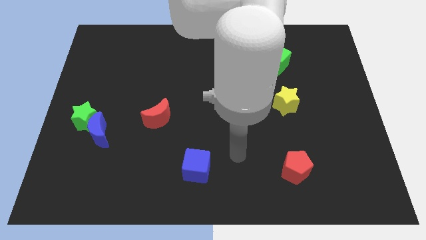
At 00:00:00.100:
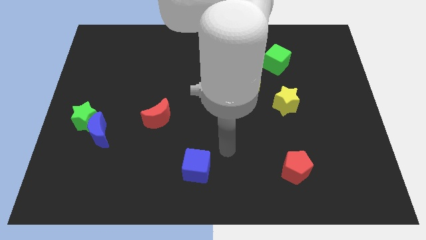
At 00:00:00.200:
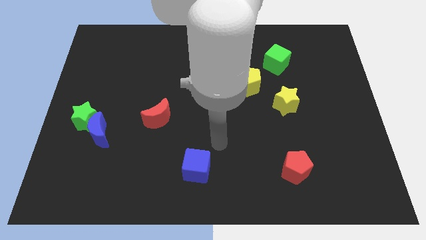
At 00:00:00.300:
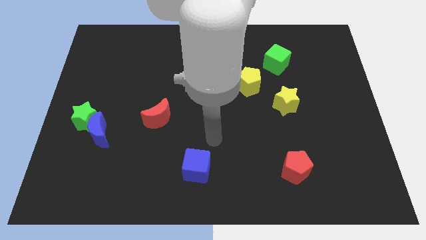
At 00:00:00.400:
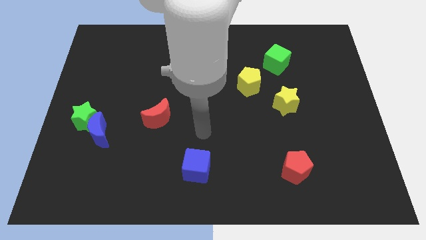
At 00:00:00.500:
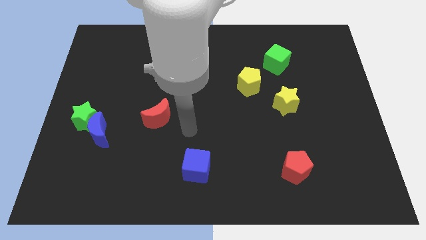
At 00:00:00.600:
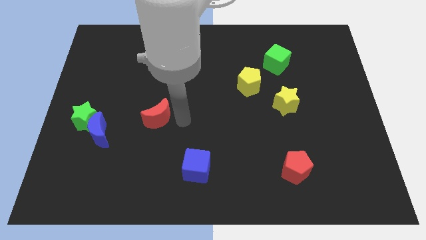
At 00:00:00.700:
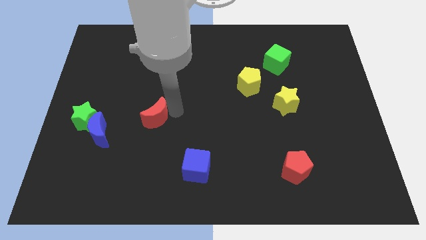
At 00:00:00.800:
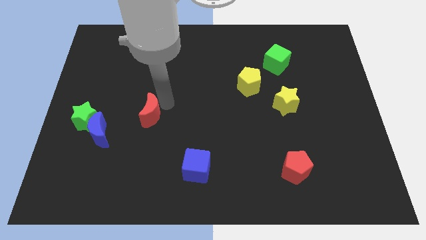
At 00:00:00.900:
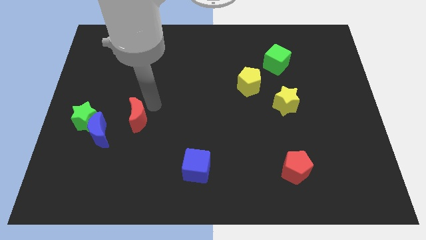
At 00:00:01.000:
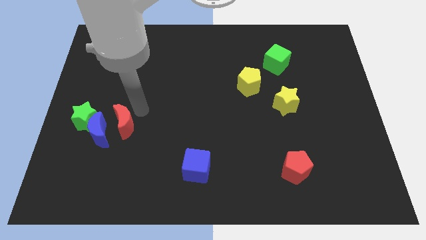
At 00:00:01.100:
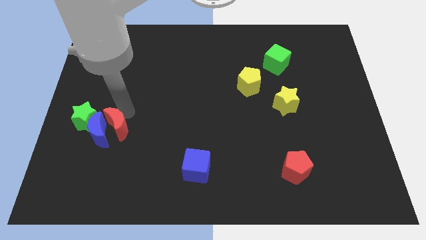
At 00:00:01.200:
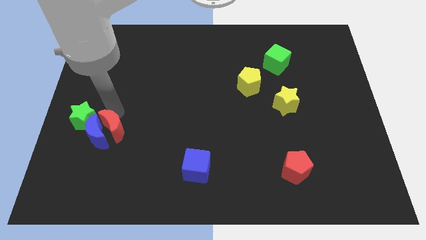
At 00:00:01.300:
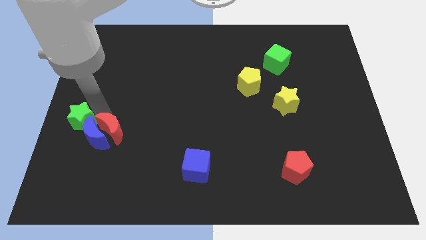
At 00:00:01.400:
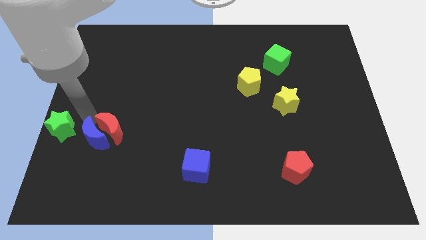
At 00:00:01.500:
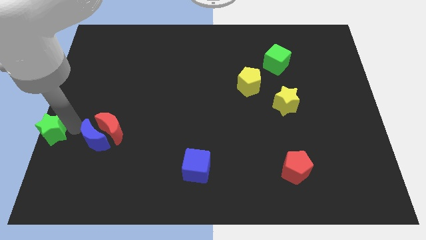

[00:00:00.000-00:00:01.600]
move the blue moon away from the green star

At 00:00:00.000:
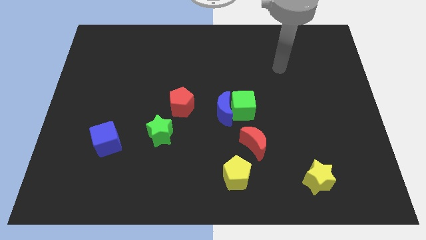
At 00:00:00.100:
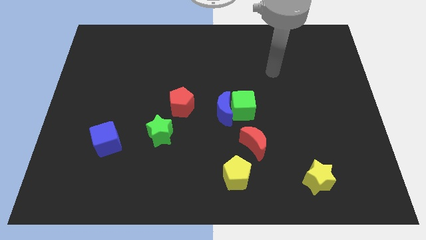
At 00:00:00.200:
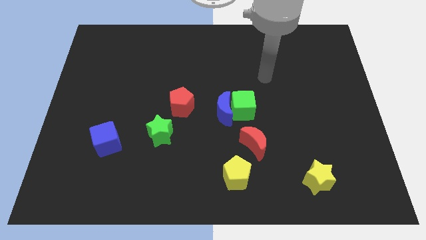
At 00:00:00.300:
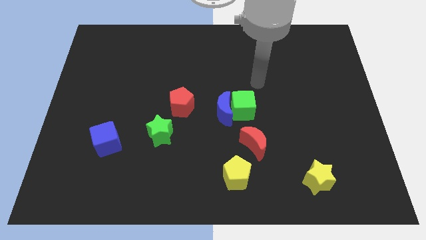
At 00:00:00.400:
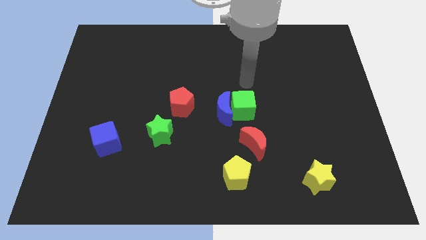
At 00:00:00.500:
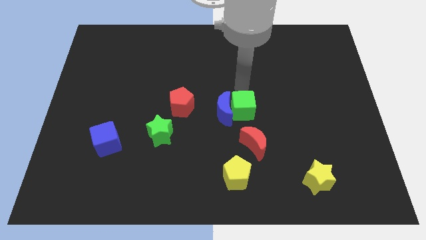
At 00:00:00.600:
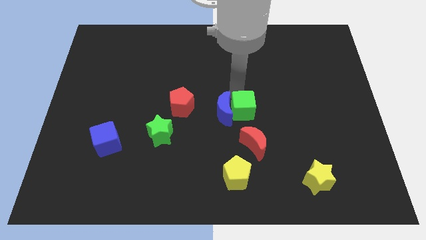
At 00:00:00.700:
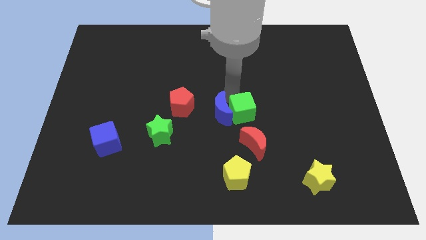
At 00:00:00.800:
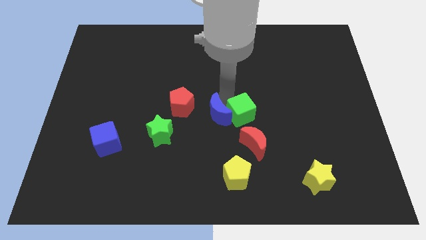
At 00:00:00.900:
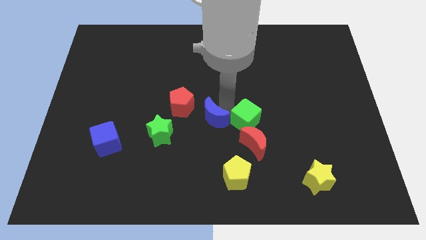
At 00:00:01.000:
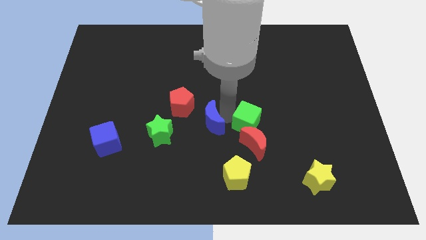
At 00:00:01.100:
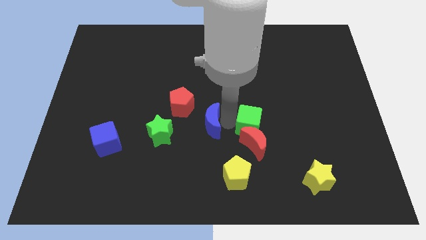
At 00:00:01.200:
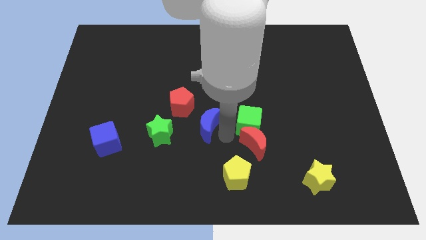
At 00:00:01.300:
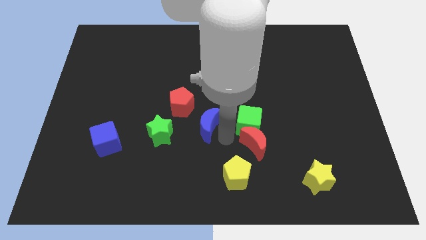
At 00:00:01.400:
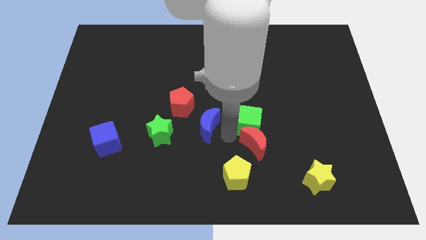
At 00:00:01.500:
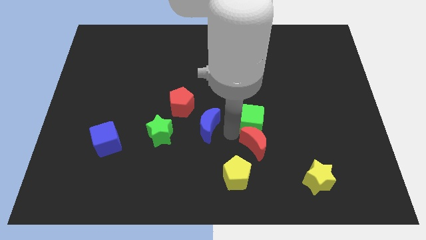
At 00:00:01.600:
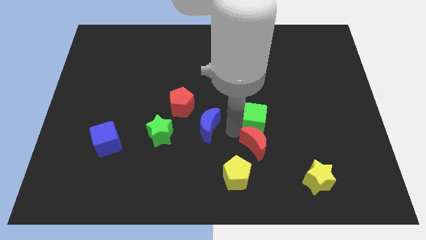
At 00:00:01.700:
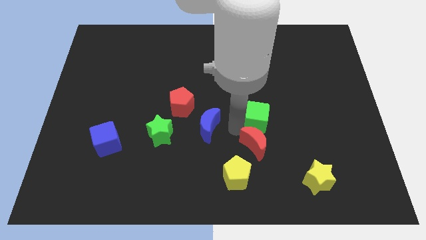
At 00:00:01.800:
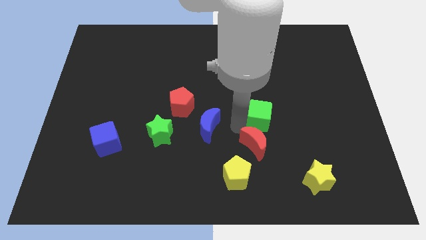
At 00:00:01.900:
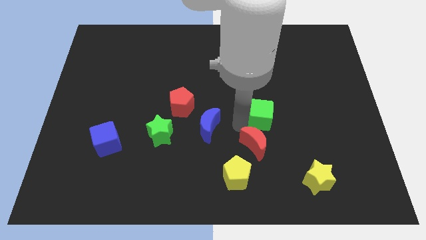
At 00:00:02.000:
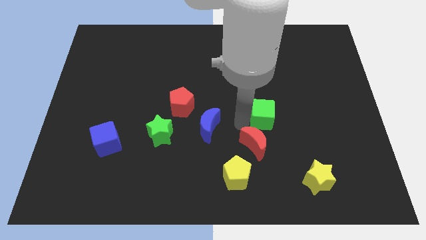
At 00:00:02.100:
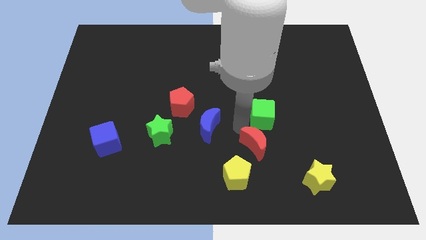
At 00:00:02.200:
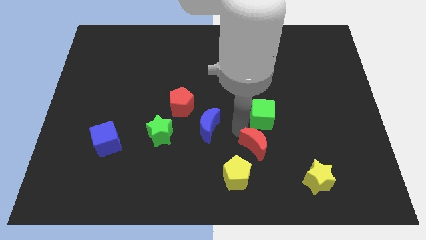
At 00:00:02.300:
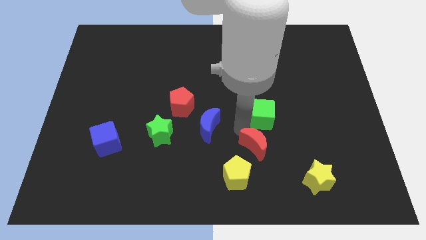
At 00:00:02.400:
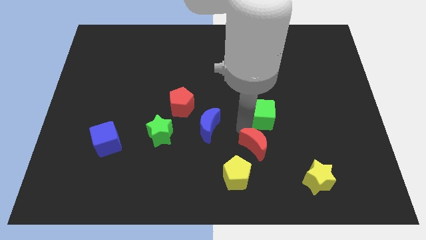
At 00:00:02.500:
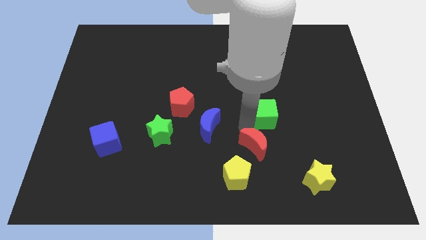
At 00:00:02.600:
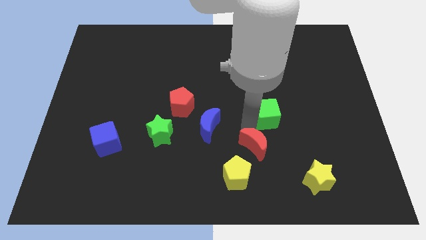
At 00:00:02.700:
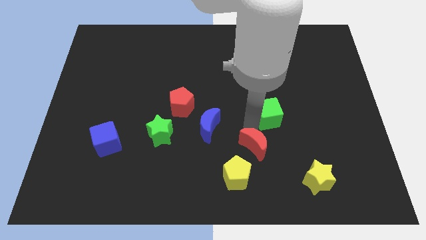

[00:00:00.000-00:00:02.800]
move the green cube away from the blue moon and red moon

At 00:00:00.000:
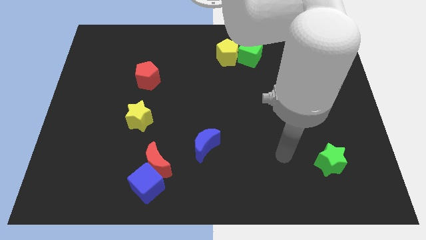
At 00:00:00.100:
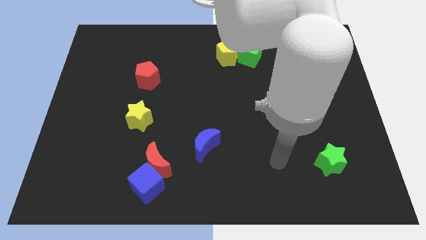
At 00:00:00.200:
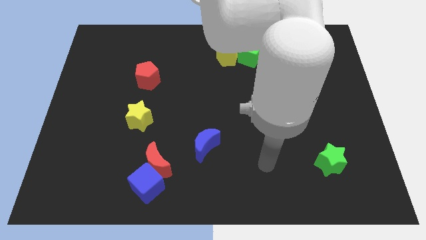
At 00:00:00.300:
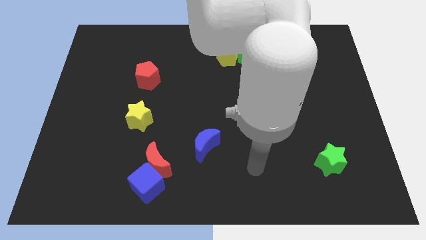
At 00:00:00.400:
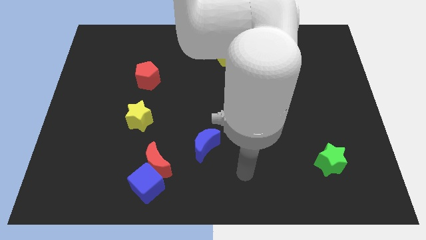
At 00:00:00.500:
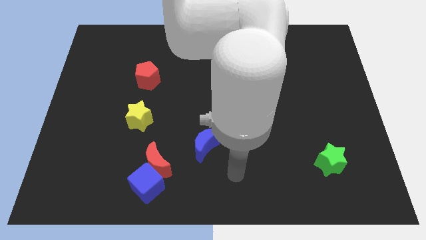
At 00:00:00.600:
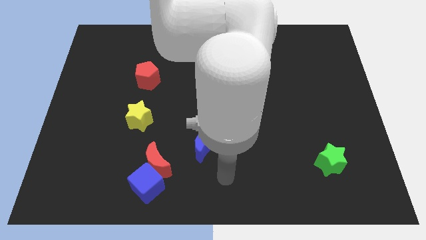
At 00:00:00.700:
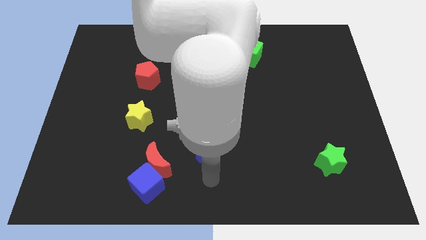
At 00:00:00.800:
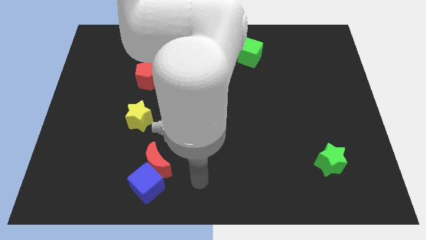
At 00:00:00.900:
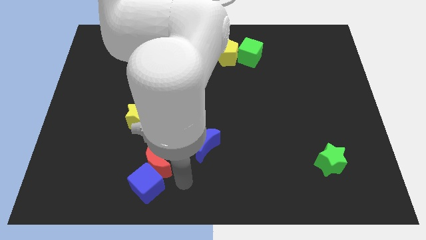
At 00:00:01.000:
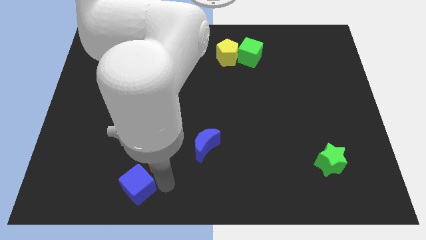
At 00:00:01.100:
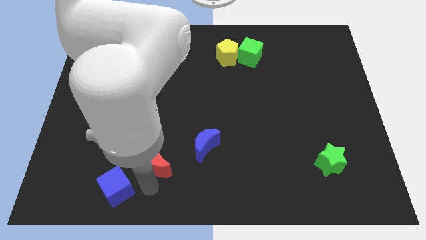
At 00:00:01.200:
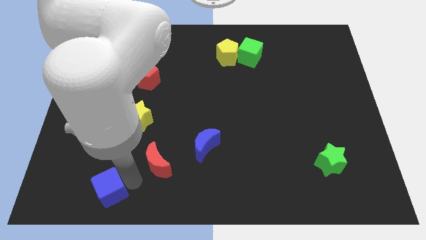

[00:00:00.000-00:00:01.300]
move the red moon away from the blue cube

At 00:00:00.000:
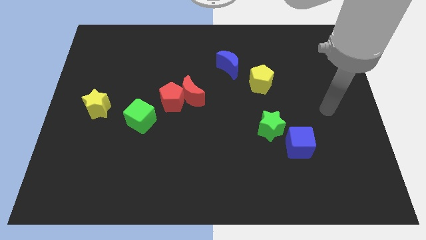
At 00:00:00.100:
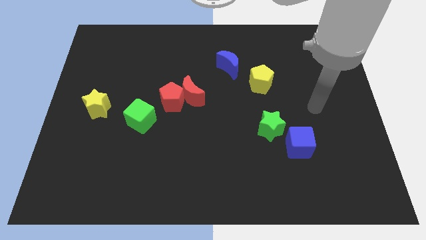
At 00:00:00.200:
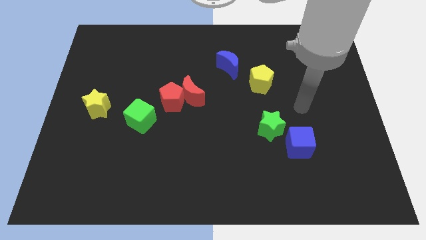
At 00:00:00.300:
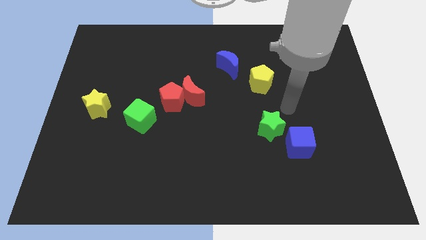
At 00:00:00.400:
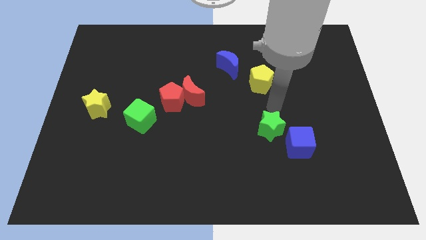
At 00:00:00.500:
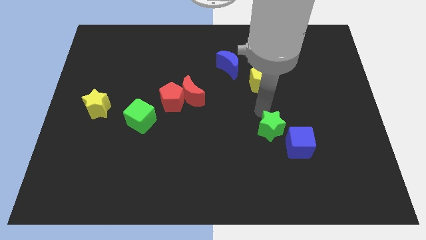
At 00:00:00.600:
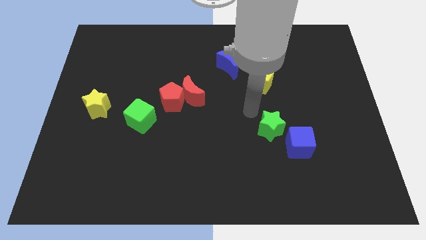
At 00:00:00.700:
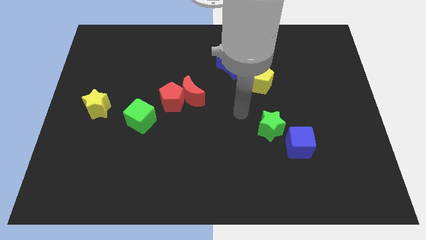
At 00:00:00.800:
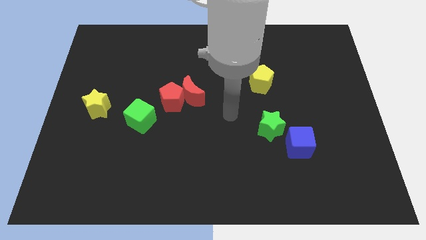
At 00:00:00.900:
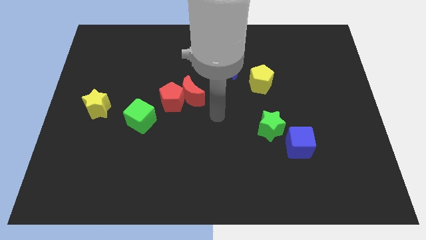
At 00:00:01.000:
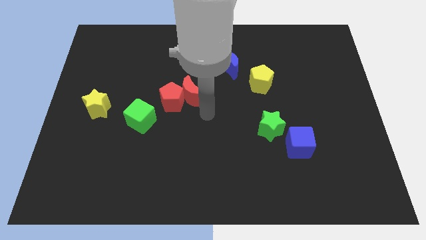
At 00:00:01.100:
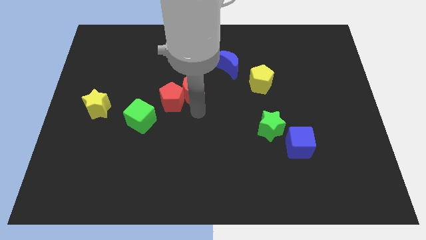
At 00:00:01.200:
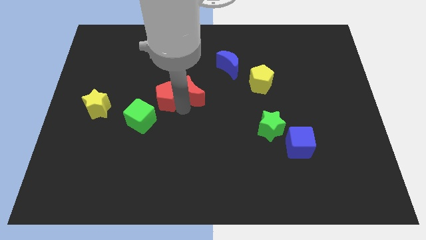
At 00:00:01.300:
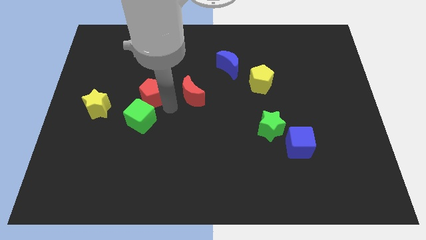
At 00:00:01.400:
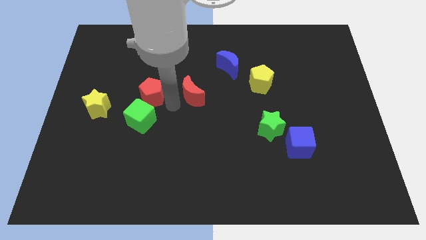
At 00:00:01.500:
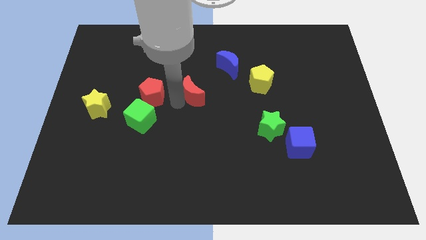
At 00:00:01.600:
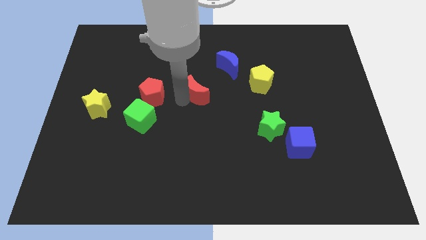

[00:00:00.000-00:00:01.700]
pull the red moon apart from the red pentagon

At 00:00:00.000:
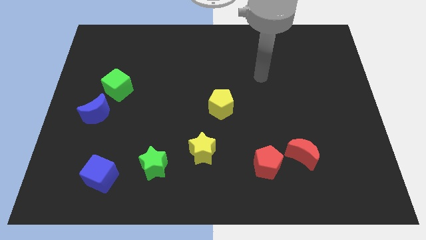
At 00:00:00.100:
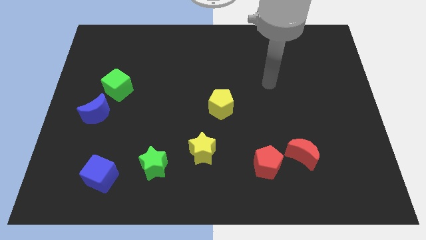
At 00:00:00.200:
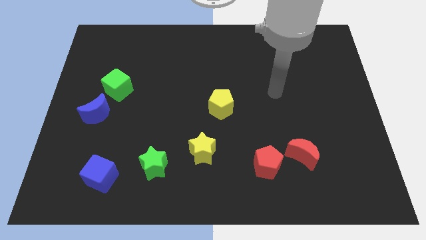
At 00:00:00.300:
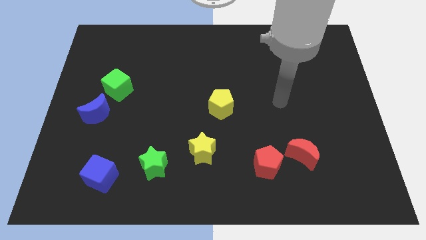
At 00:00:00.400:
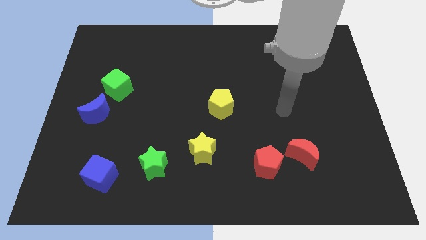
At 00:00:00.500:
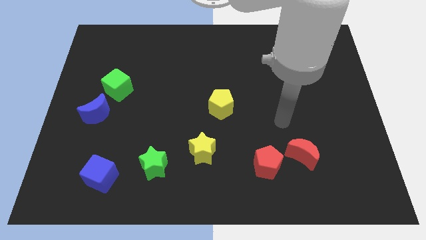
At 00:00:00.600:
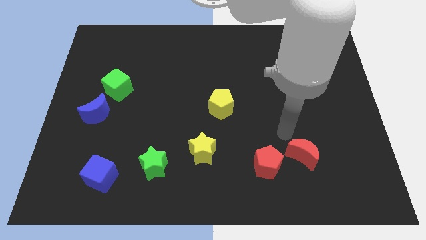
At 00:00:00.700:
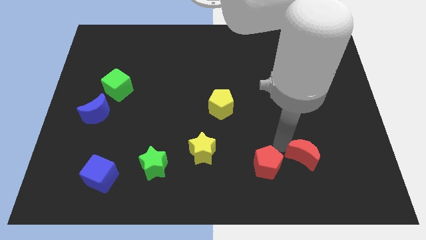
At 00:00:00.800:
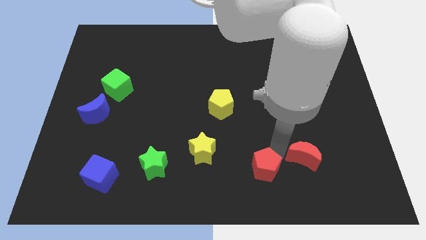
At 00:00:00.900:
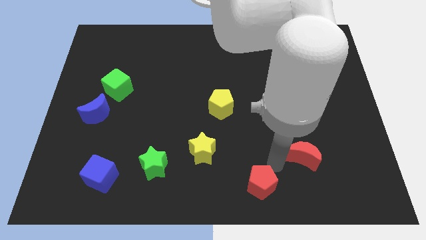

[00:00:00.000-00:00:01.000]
move the red moon away from the red pentagon

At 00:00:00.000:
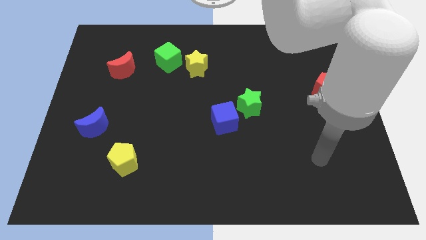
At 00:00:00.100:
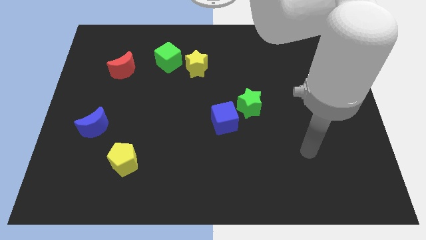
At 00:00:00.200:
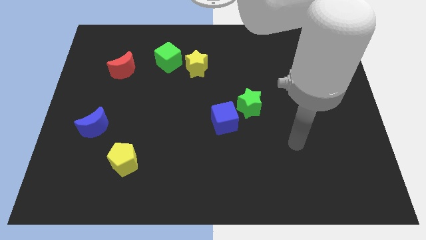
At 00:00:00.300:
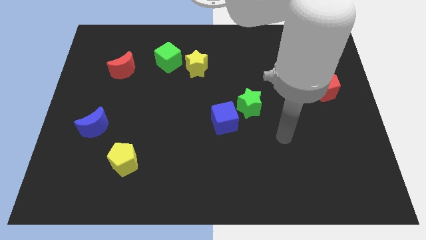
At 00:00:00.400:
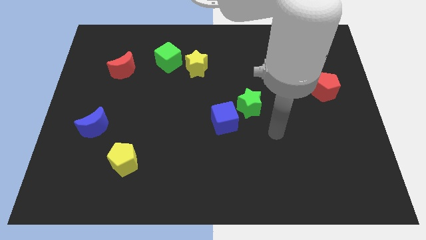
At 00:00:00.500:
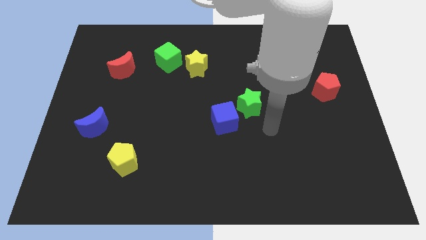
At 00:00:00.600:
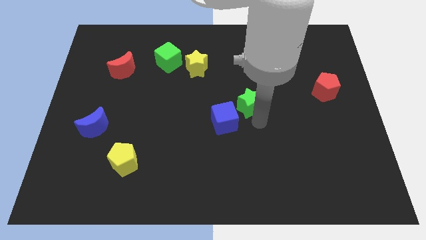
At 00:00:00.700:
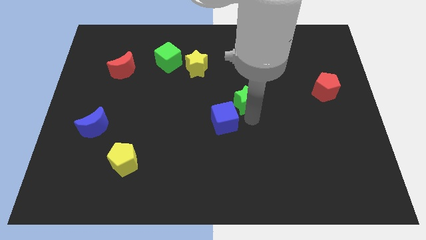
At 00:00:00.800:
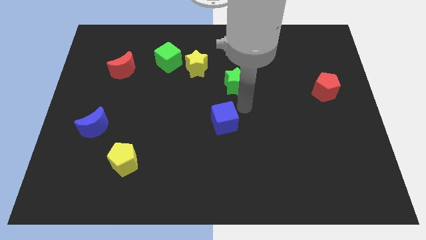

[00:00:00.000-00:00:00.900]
separate the blue cube from the green star
